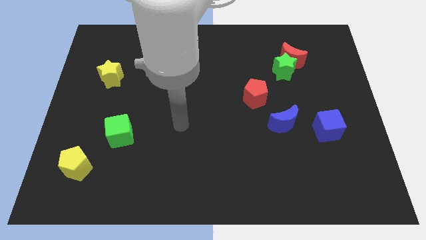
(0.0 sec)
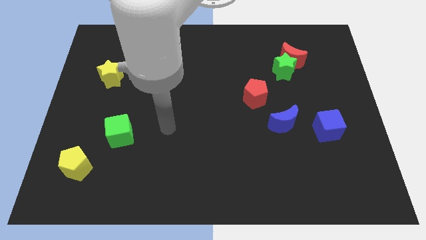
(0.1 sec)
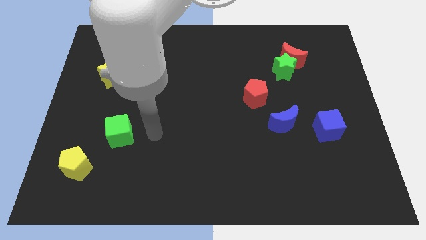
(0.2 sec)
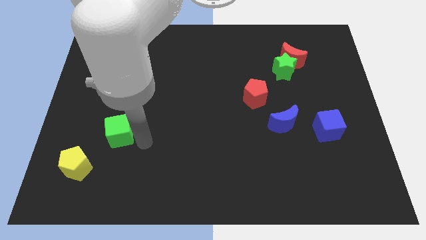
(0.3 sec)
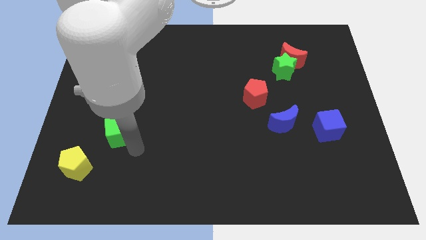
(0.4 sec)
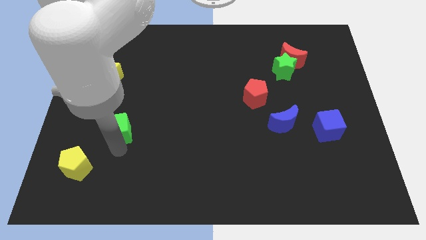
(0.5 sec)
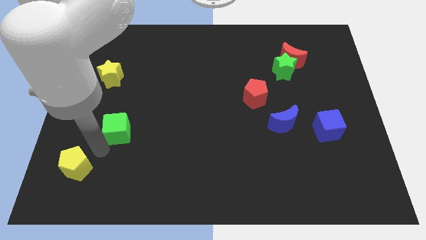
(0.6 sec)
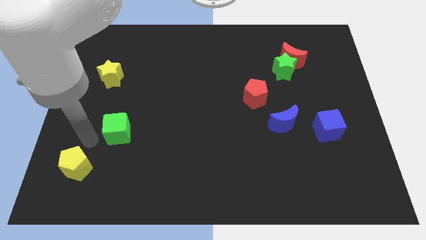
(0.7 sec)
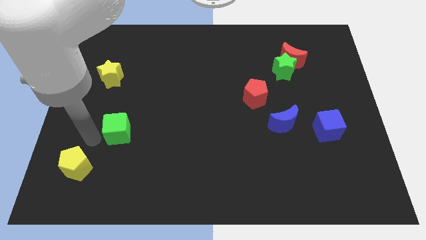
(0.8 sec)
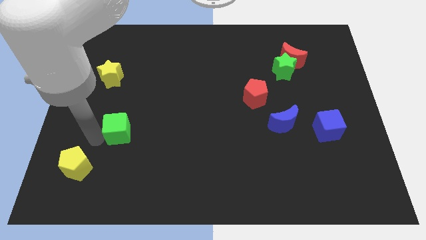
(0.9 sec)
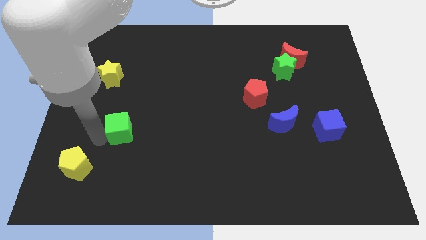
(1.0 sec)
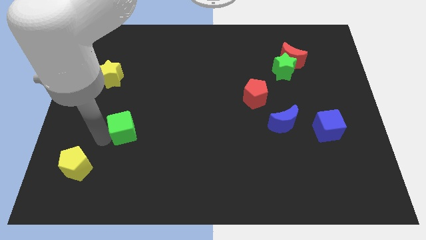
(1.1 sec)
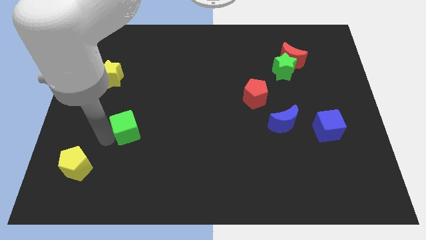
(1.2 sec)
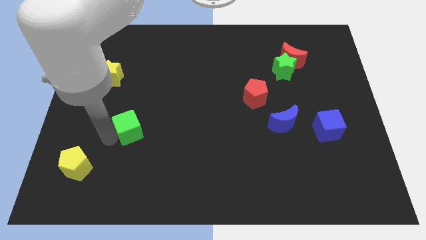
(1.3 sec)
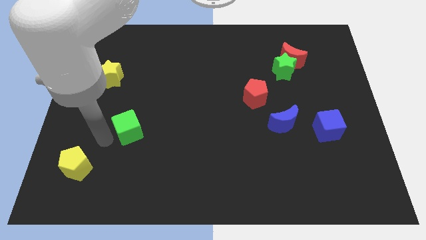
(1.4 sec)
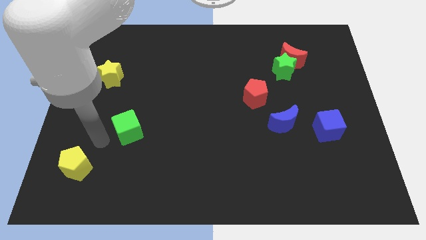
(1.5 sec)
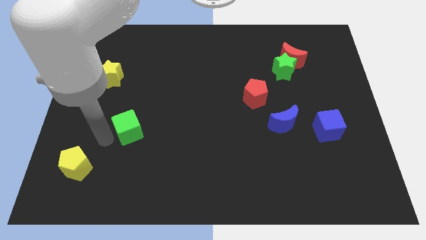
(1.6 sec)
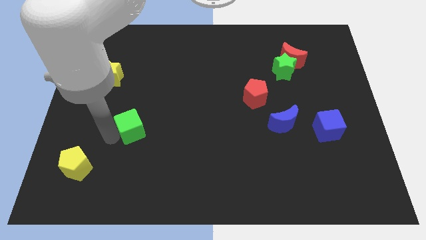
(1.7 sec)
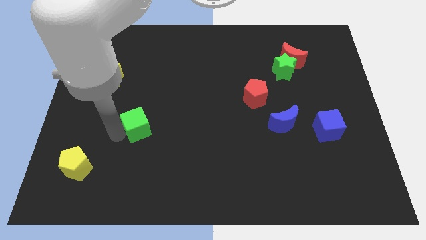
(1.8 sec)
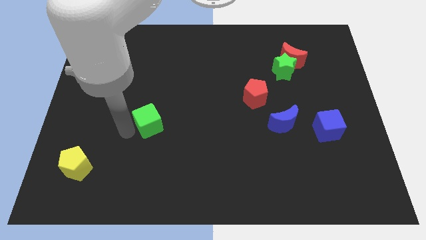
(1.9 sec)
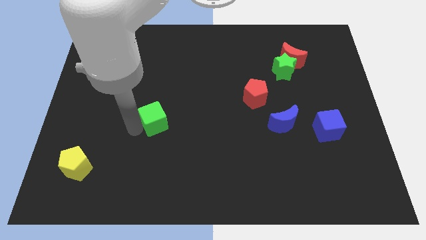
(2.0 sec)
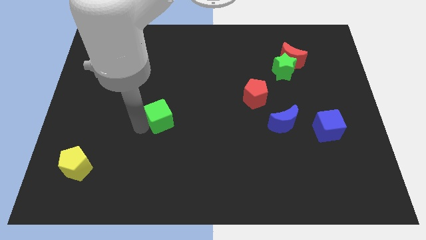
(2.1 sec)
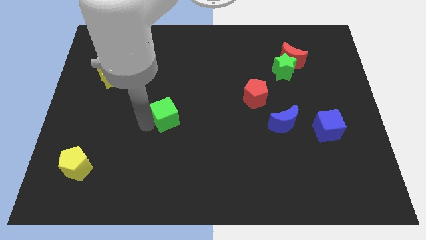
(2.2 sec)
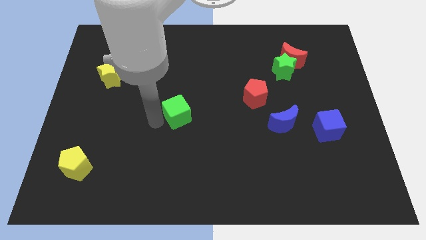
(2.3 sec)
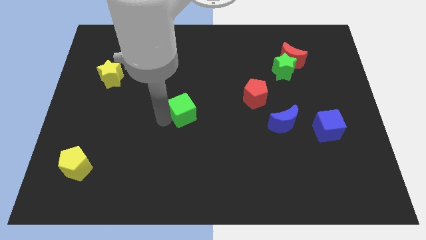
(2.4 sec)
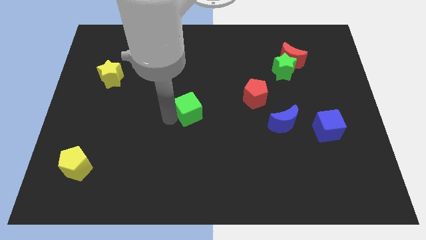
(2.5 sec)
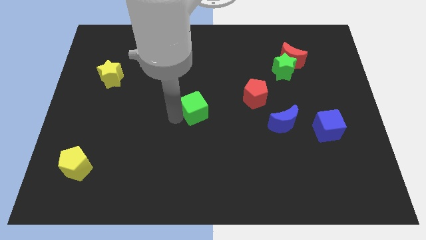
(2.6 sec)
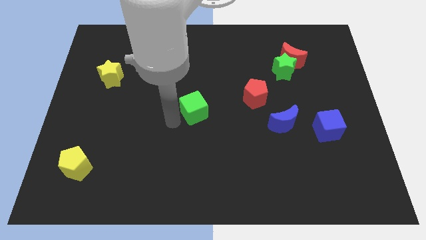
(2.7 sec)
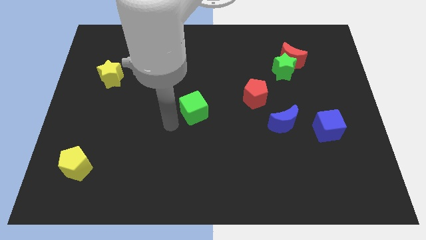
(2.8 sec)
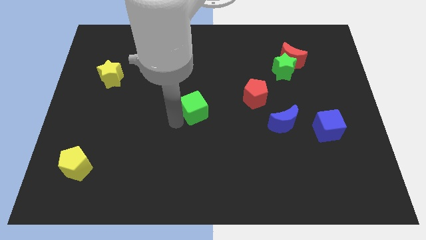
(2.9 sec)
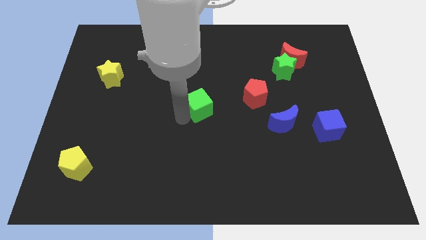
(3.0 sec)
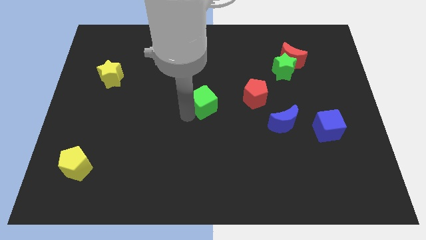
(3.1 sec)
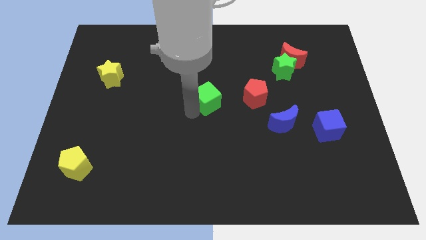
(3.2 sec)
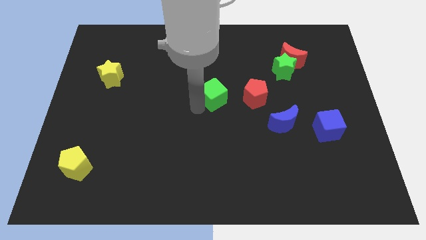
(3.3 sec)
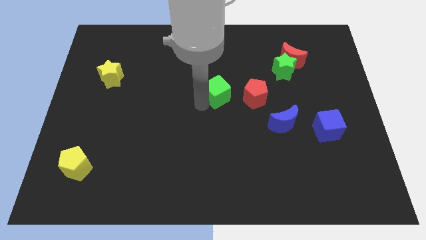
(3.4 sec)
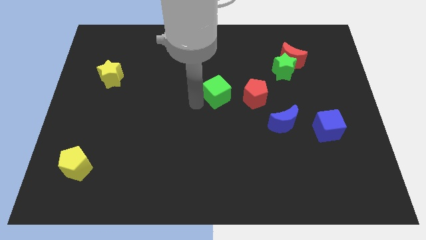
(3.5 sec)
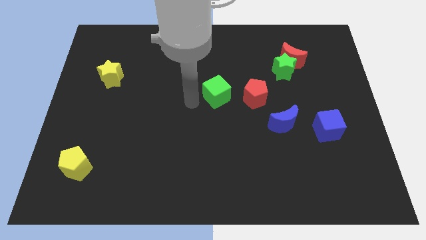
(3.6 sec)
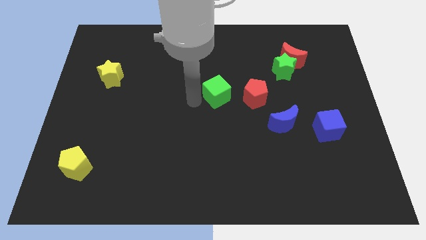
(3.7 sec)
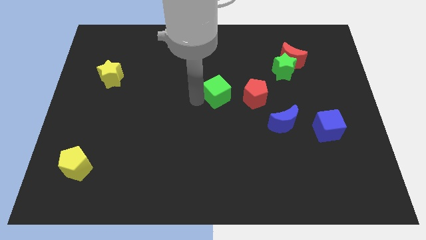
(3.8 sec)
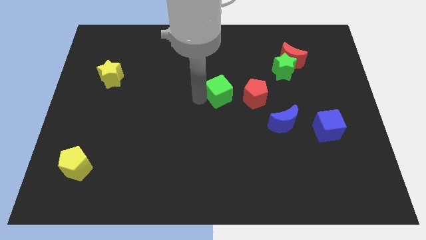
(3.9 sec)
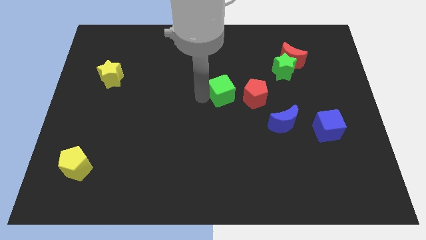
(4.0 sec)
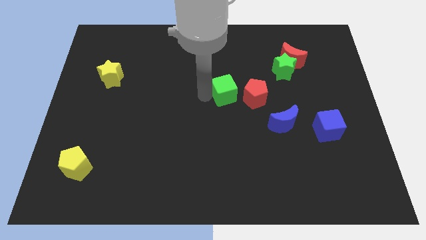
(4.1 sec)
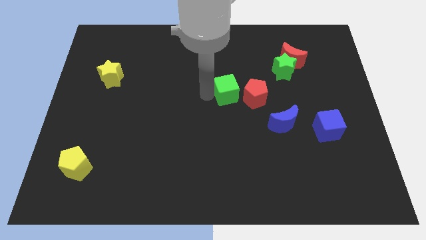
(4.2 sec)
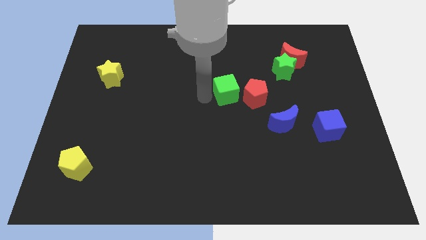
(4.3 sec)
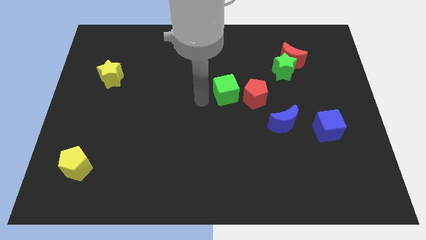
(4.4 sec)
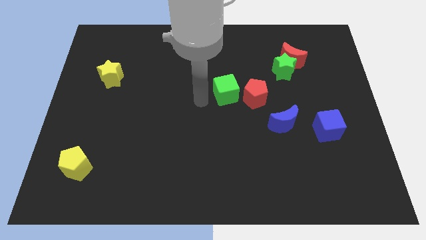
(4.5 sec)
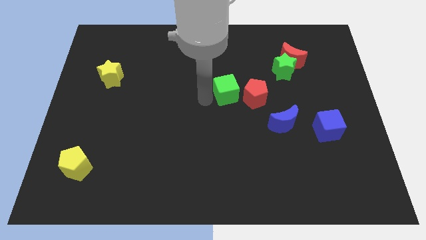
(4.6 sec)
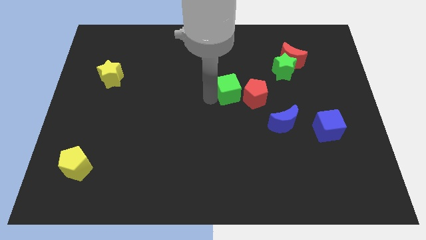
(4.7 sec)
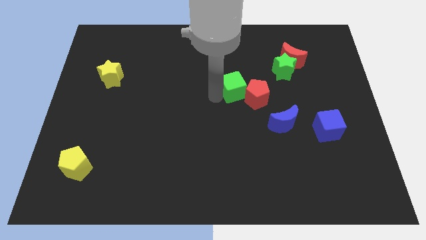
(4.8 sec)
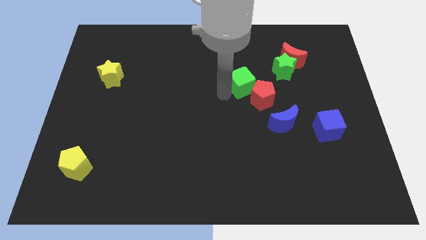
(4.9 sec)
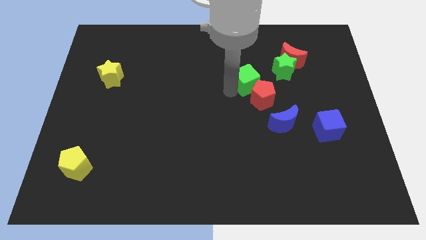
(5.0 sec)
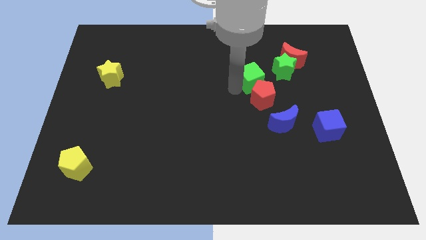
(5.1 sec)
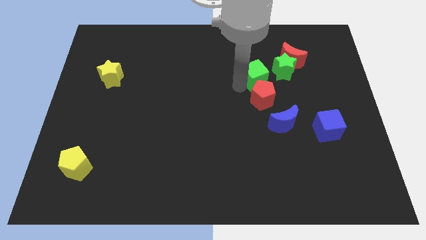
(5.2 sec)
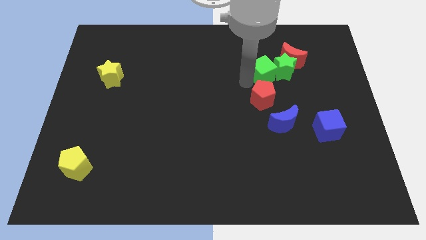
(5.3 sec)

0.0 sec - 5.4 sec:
move the green cube close to the green star
